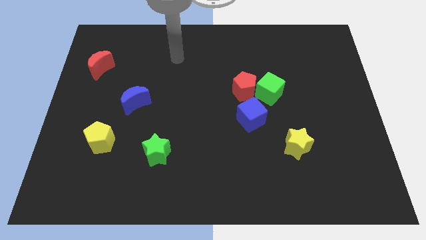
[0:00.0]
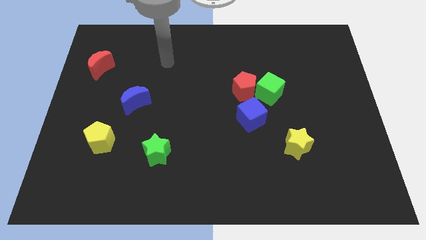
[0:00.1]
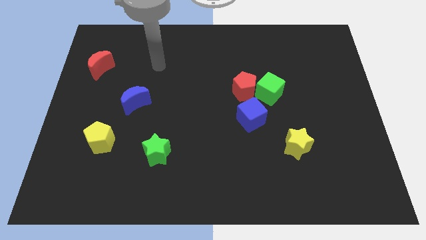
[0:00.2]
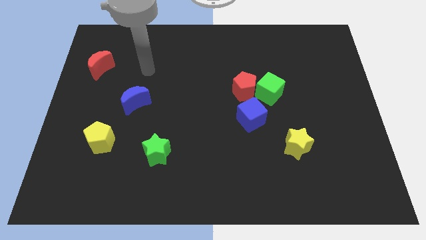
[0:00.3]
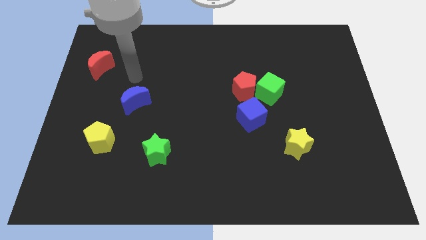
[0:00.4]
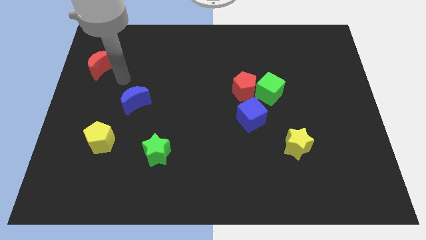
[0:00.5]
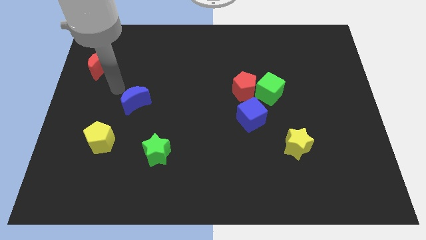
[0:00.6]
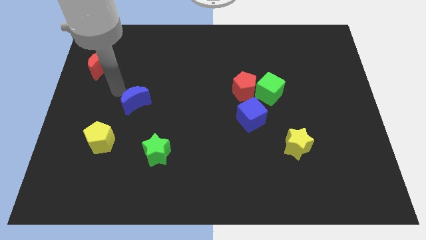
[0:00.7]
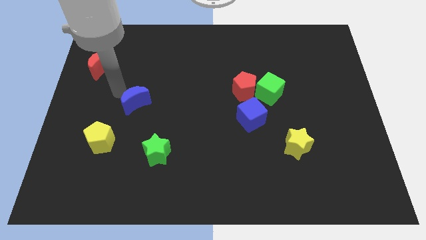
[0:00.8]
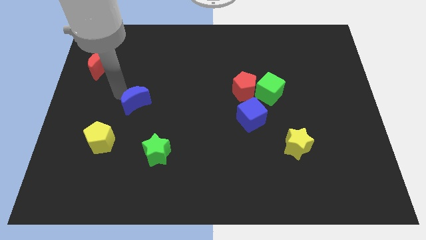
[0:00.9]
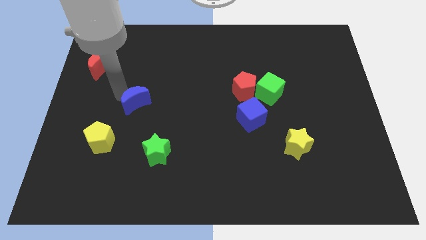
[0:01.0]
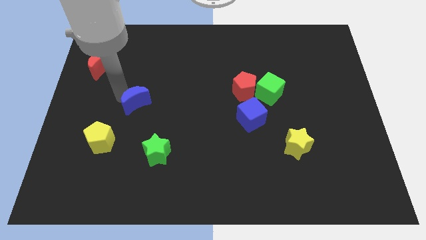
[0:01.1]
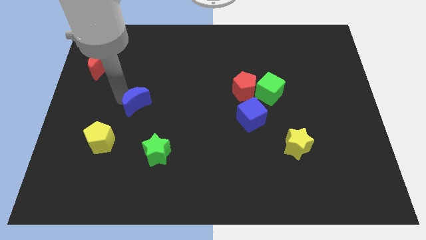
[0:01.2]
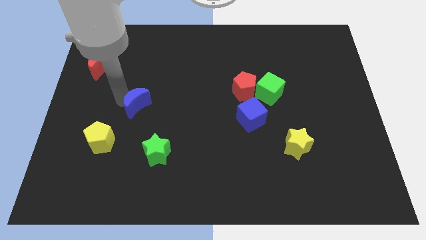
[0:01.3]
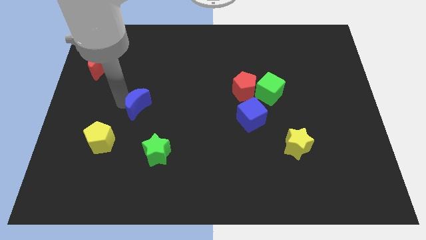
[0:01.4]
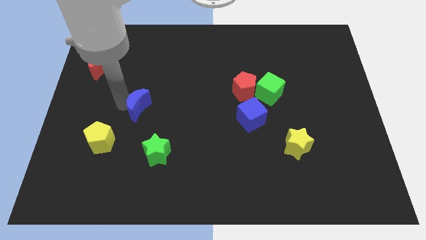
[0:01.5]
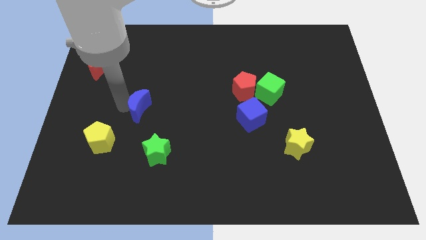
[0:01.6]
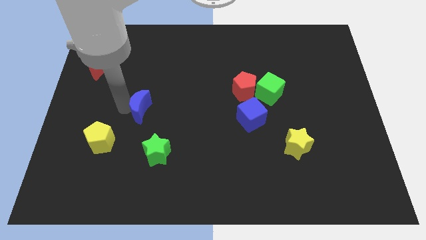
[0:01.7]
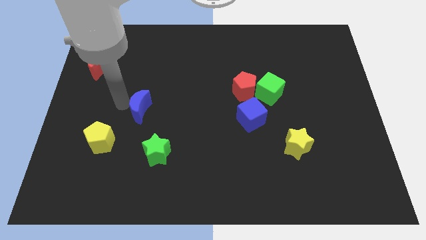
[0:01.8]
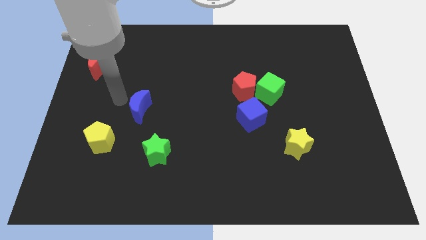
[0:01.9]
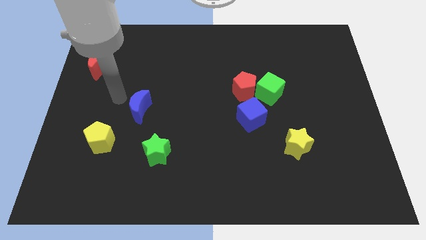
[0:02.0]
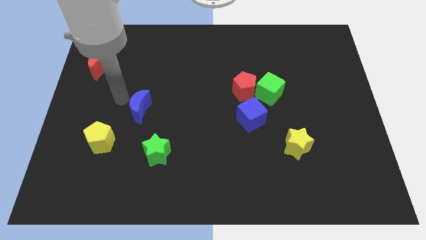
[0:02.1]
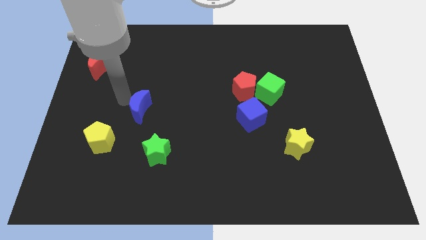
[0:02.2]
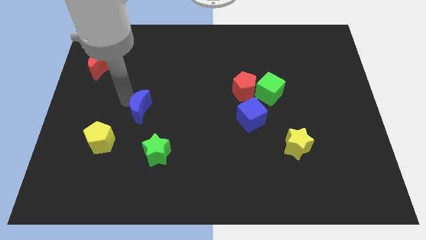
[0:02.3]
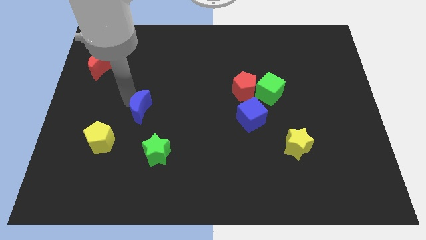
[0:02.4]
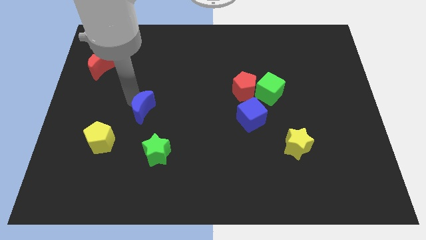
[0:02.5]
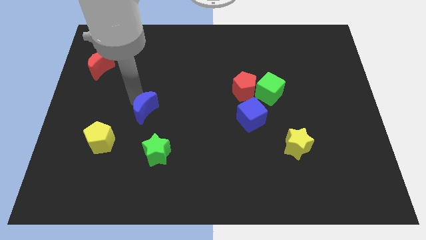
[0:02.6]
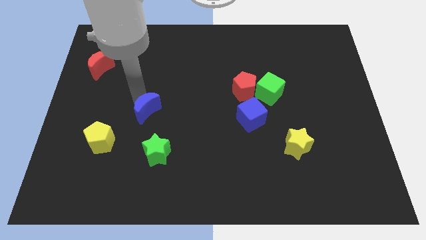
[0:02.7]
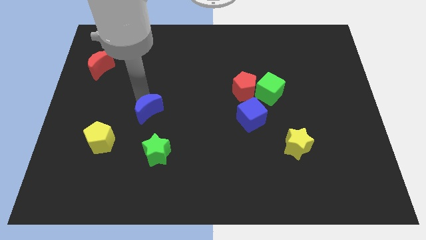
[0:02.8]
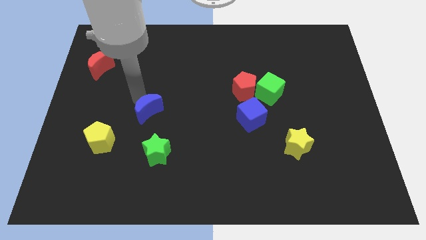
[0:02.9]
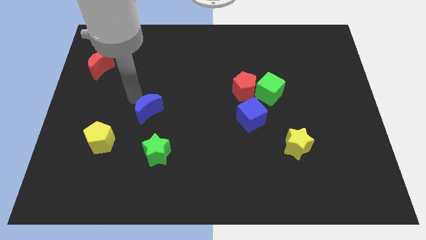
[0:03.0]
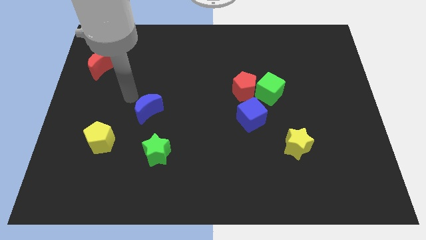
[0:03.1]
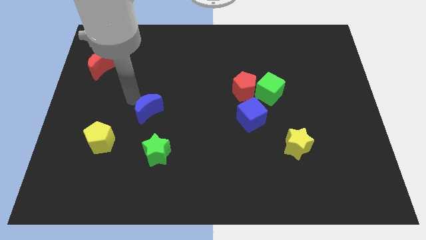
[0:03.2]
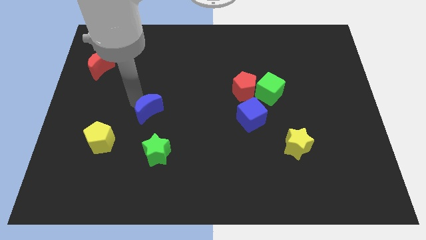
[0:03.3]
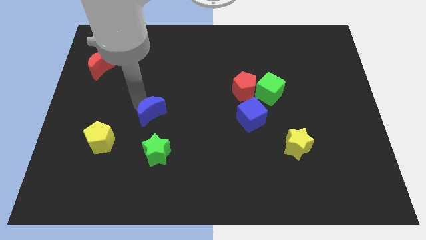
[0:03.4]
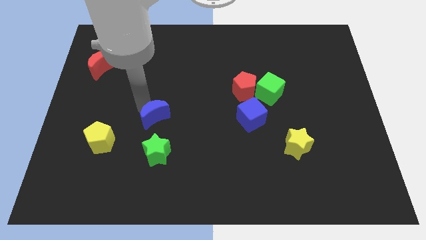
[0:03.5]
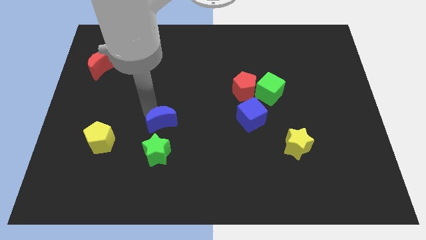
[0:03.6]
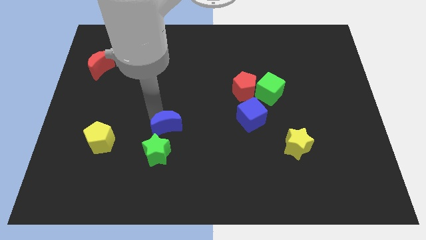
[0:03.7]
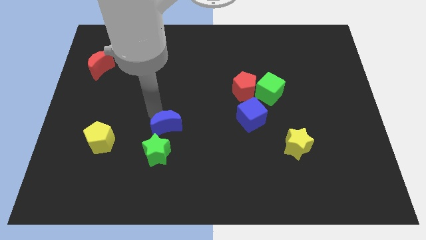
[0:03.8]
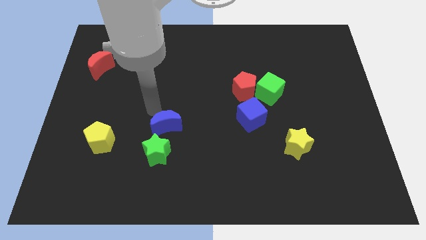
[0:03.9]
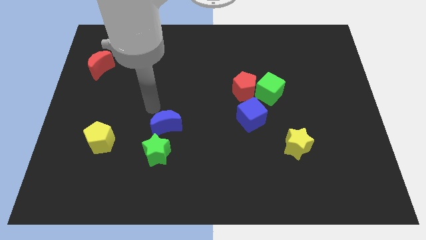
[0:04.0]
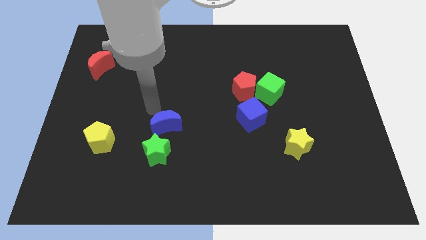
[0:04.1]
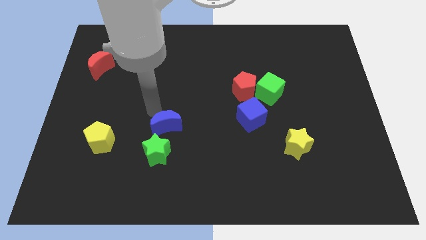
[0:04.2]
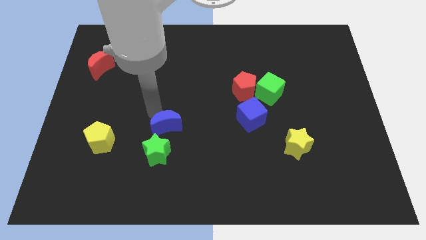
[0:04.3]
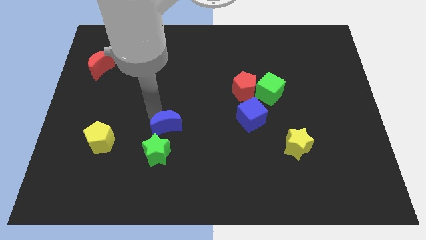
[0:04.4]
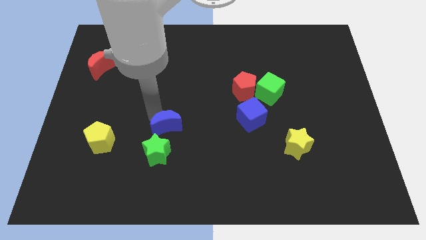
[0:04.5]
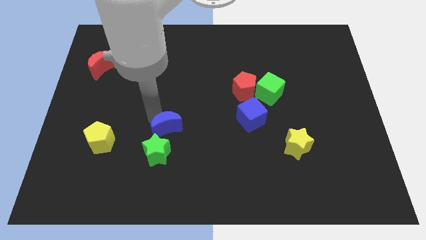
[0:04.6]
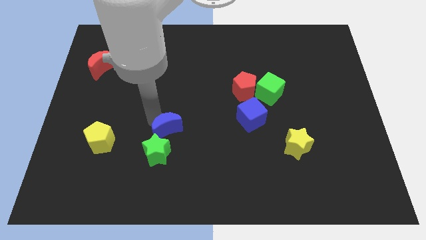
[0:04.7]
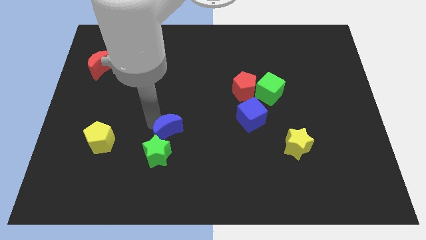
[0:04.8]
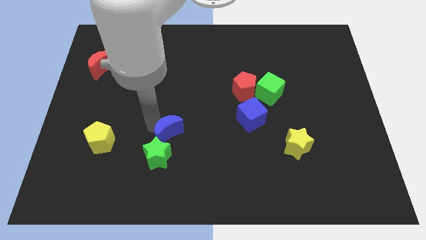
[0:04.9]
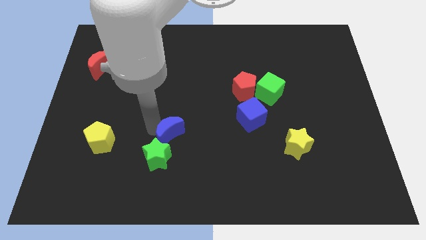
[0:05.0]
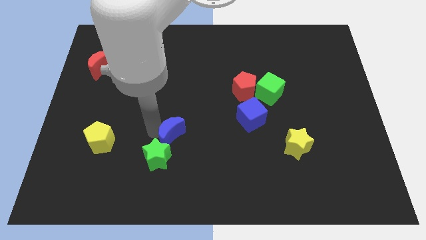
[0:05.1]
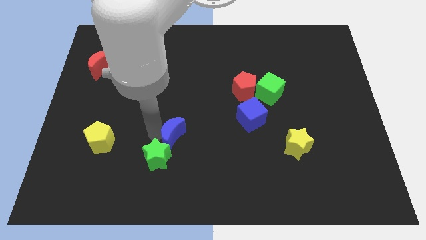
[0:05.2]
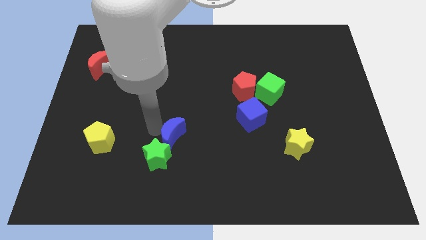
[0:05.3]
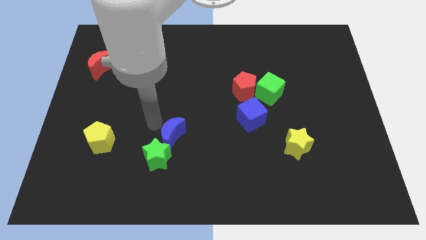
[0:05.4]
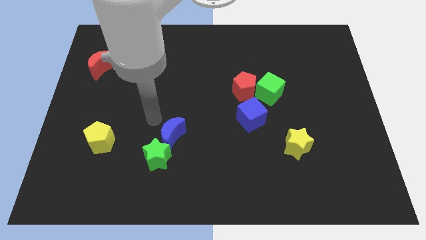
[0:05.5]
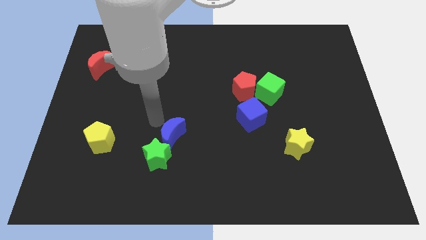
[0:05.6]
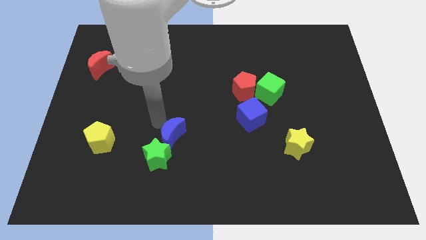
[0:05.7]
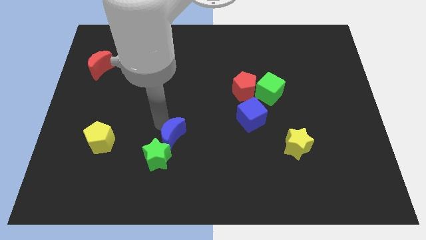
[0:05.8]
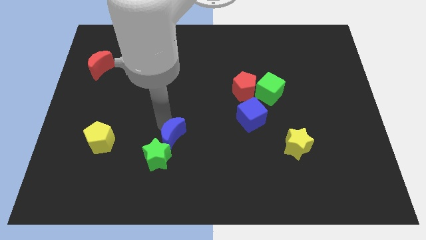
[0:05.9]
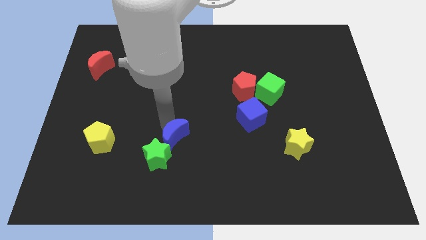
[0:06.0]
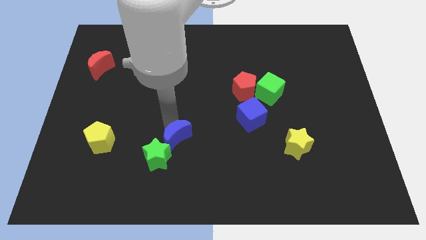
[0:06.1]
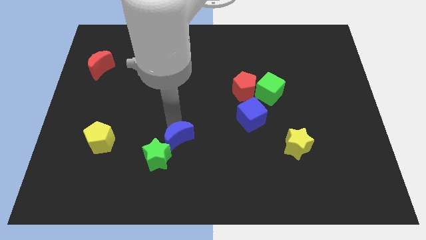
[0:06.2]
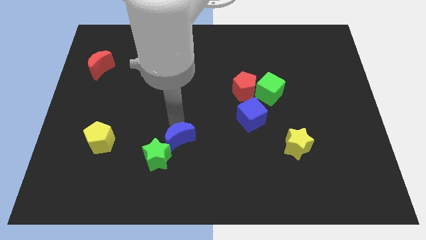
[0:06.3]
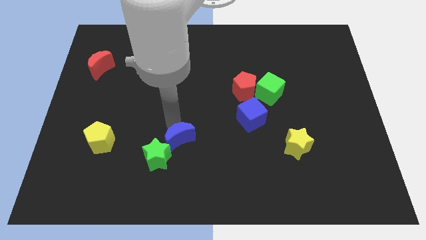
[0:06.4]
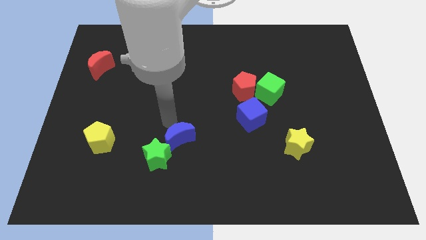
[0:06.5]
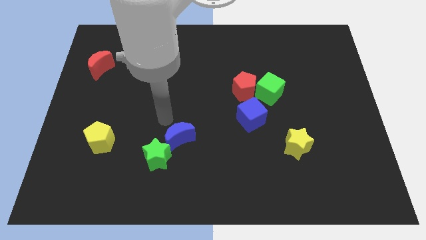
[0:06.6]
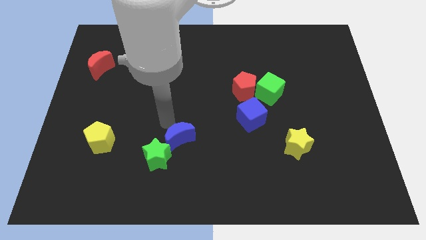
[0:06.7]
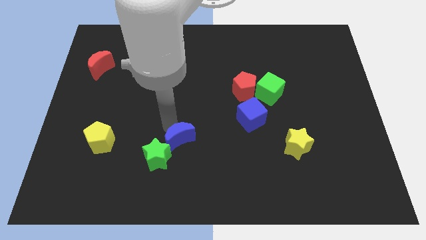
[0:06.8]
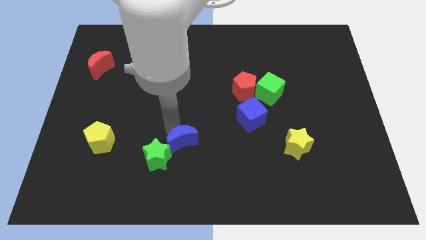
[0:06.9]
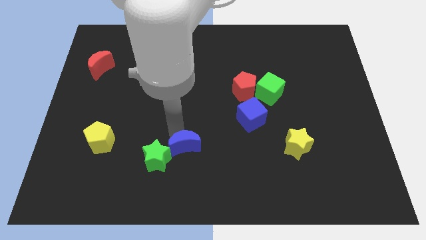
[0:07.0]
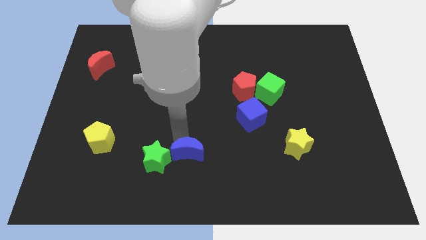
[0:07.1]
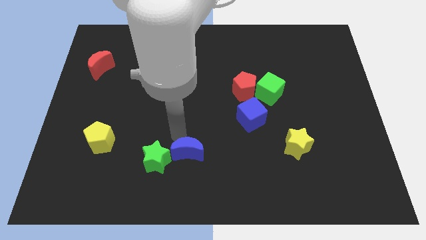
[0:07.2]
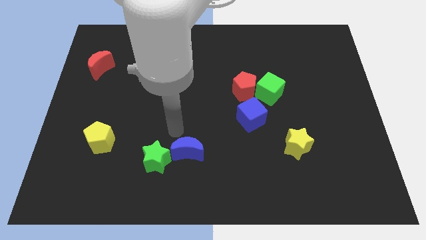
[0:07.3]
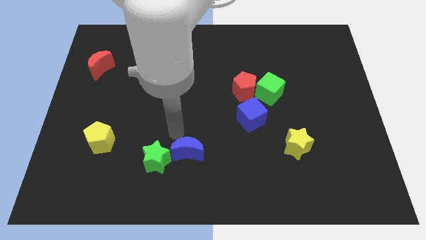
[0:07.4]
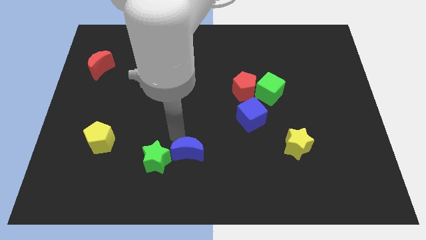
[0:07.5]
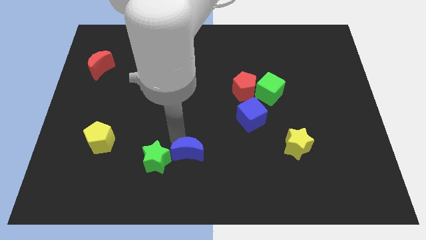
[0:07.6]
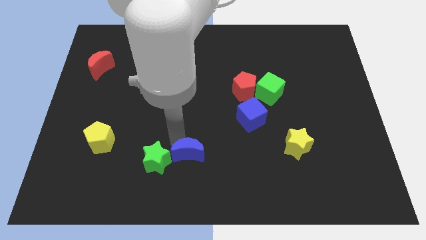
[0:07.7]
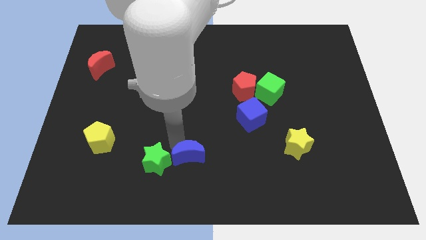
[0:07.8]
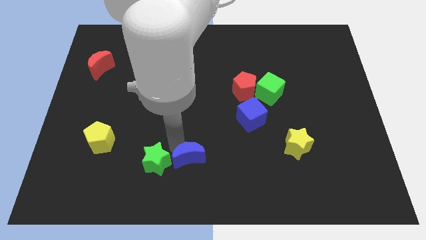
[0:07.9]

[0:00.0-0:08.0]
slide the blue moon to the bottom
